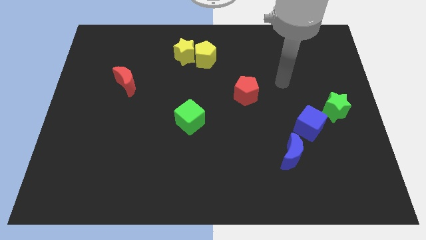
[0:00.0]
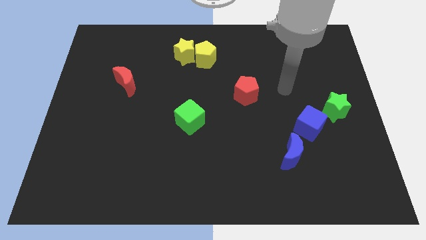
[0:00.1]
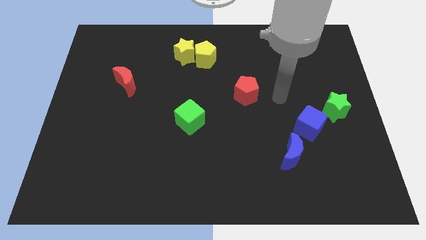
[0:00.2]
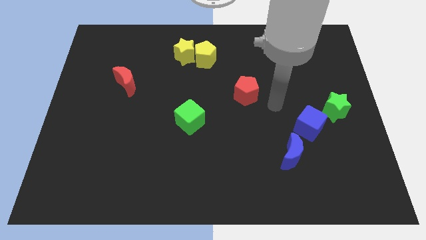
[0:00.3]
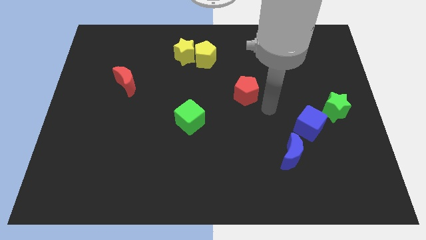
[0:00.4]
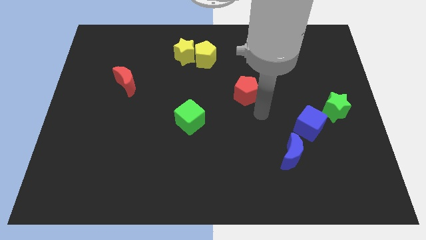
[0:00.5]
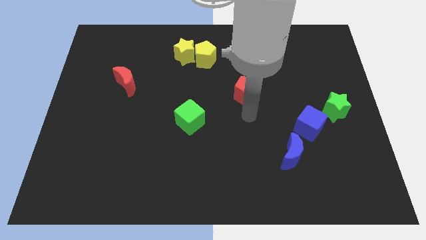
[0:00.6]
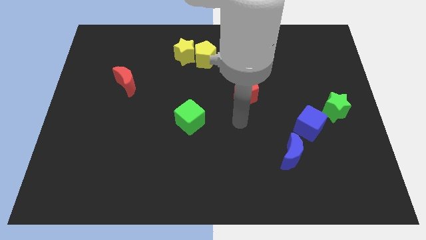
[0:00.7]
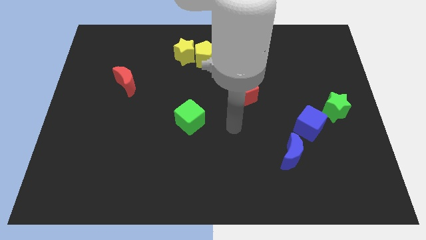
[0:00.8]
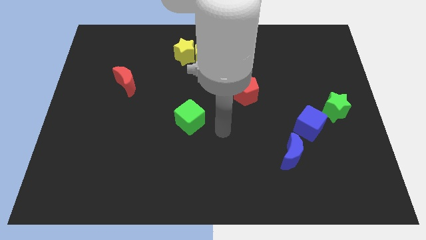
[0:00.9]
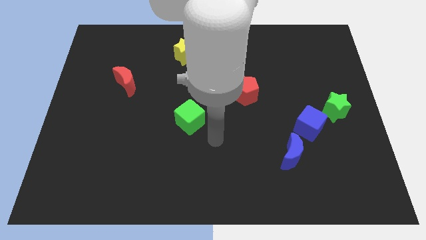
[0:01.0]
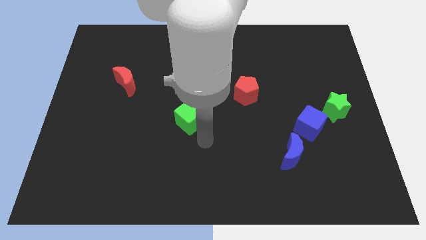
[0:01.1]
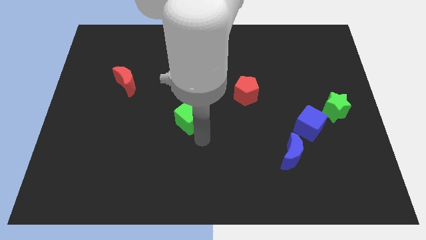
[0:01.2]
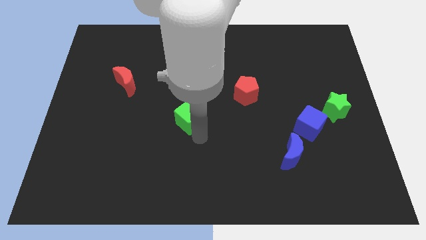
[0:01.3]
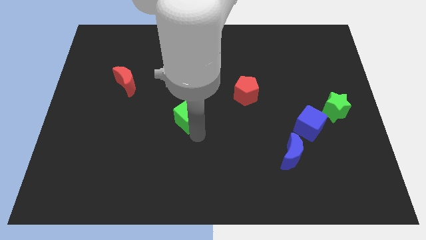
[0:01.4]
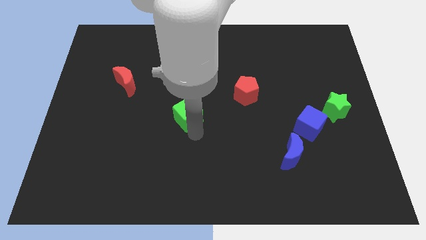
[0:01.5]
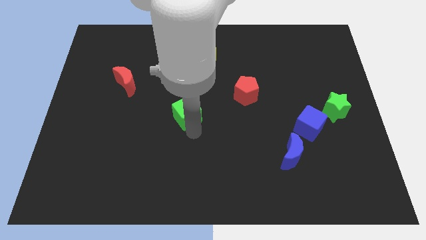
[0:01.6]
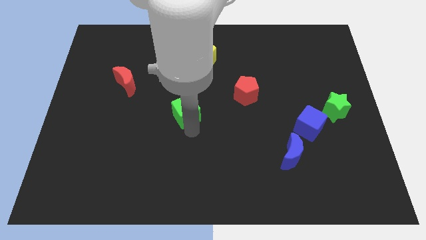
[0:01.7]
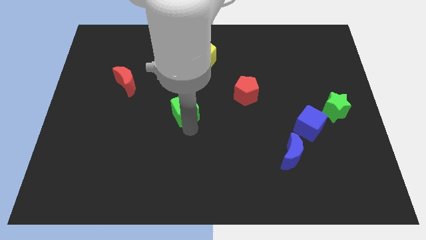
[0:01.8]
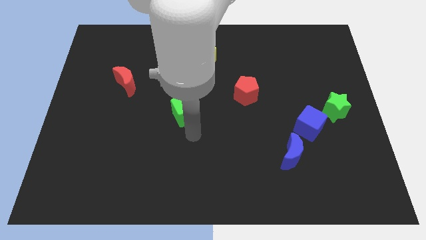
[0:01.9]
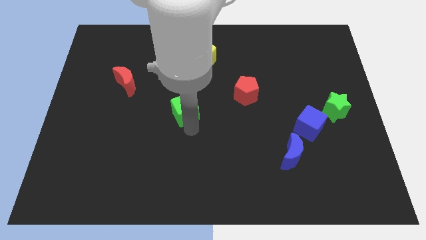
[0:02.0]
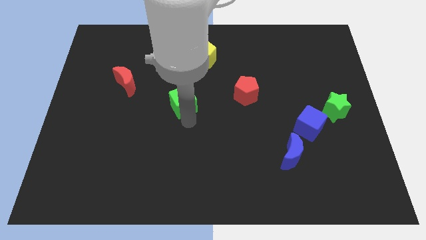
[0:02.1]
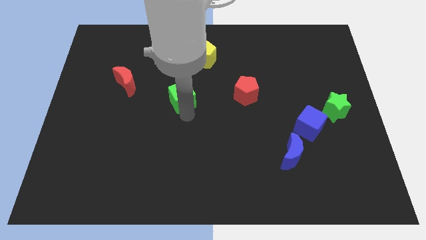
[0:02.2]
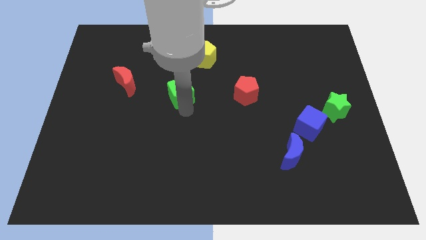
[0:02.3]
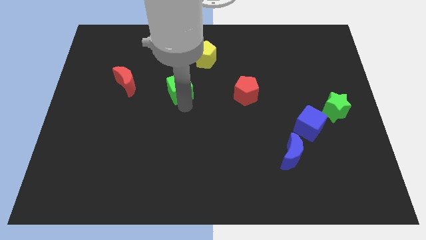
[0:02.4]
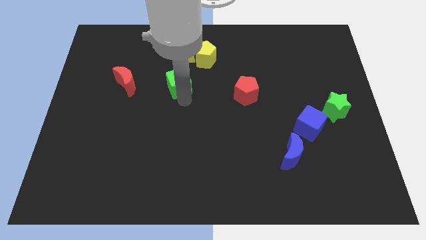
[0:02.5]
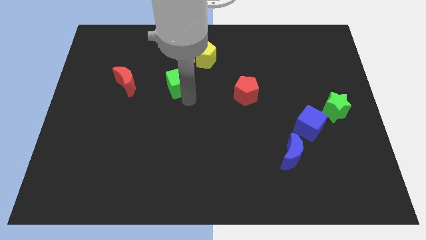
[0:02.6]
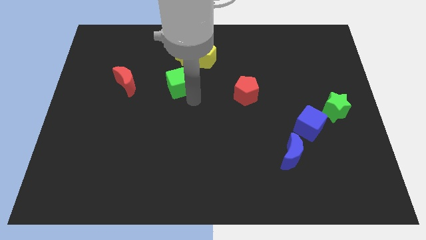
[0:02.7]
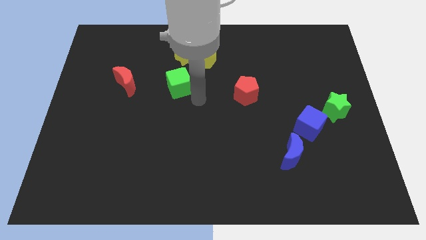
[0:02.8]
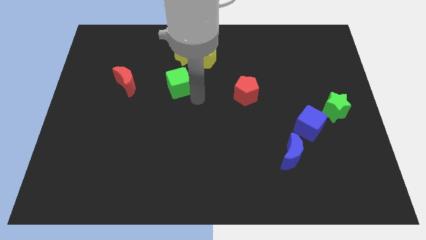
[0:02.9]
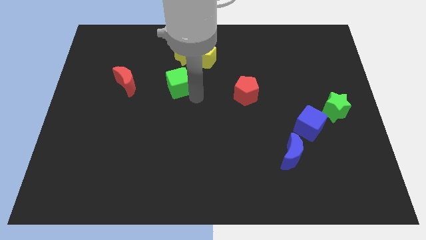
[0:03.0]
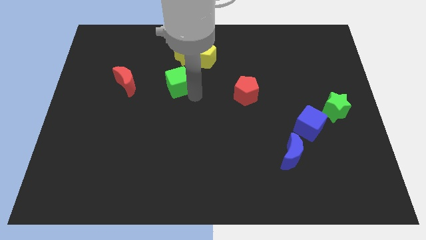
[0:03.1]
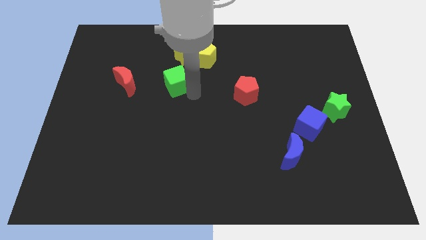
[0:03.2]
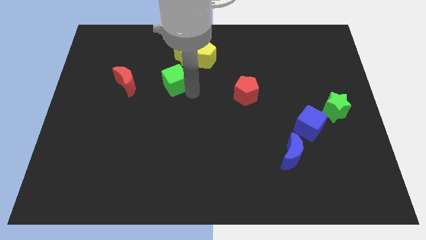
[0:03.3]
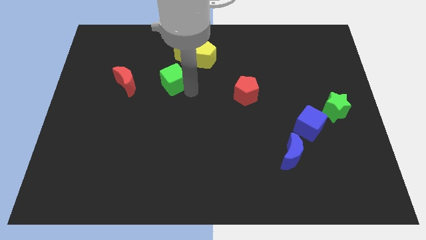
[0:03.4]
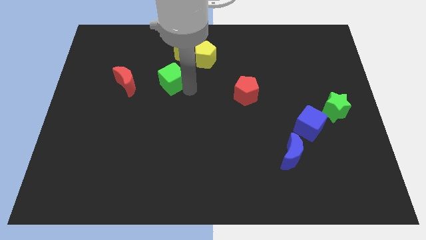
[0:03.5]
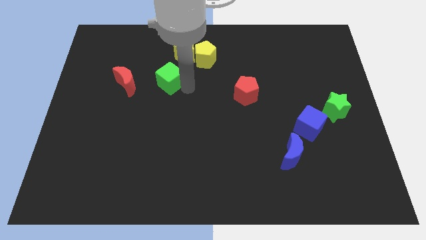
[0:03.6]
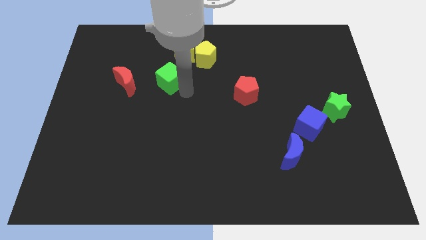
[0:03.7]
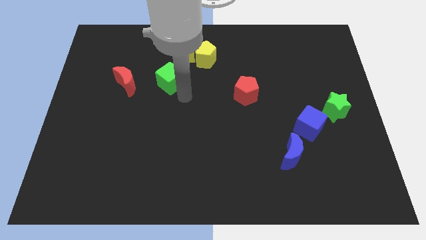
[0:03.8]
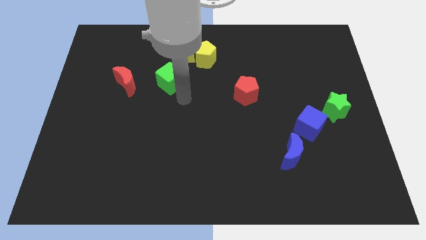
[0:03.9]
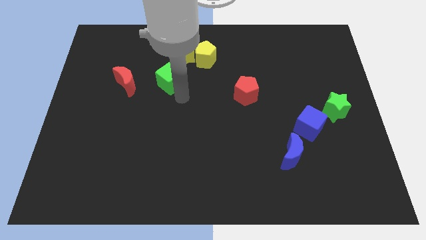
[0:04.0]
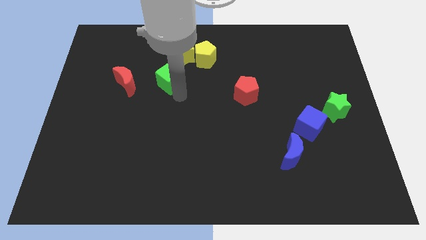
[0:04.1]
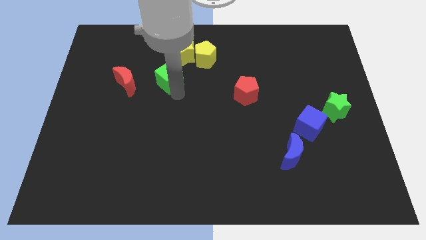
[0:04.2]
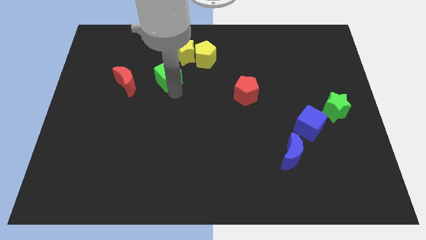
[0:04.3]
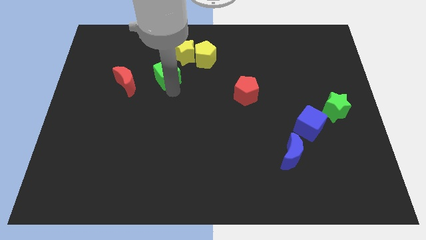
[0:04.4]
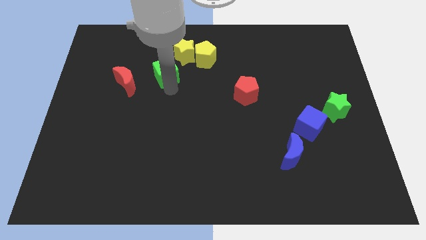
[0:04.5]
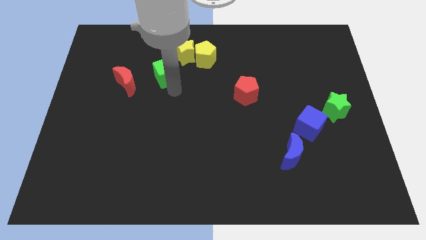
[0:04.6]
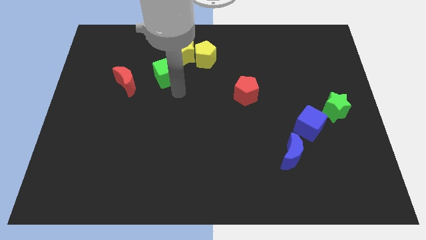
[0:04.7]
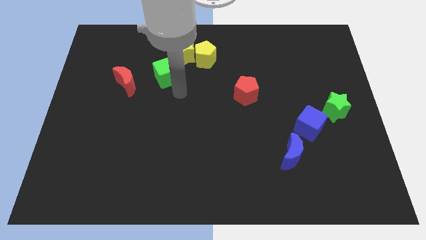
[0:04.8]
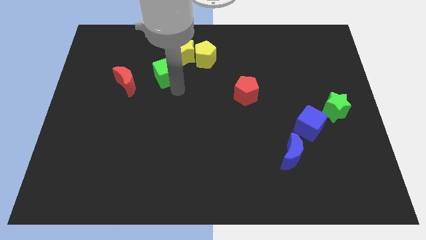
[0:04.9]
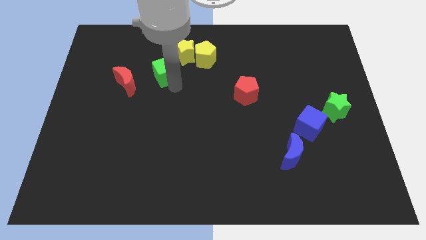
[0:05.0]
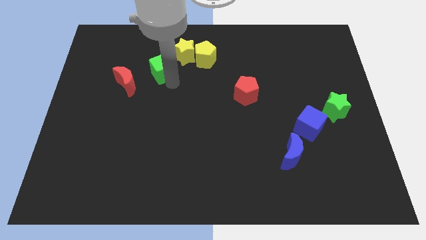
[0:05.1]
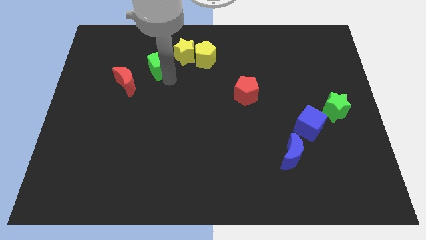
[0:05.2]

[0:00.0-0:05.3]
slide the green cube to the left of the yellow star

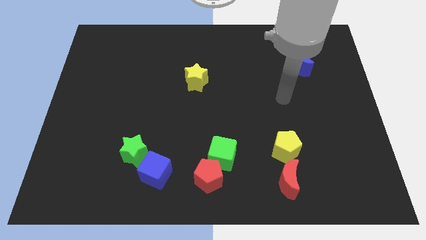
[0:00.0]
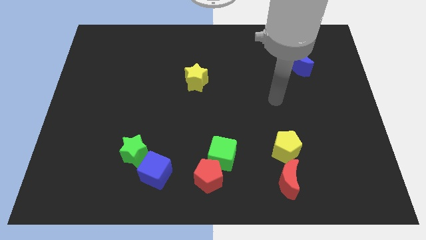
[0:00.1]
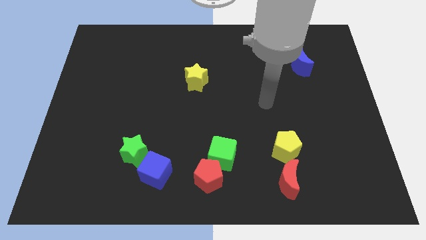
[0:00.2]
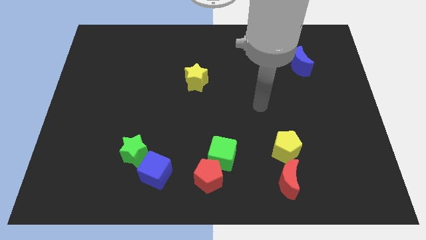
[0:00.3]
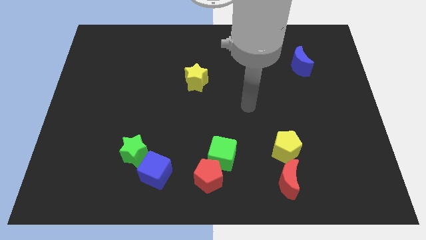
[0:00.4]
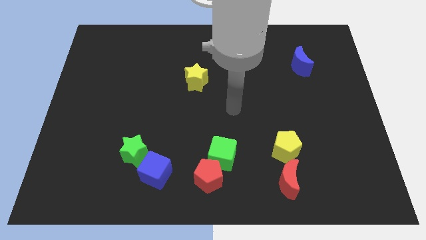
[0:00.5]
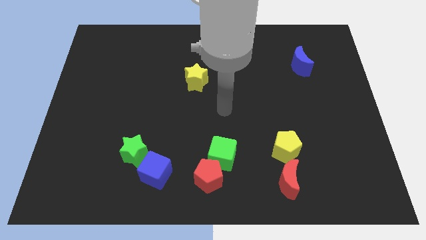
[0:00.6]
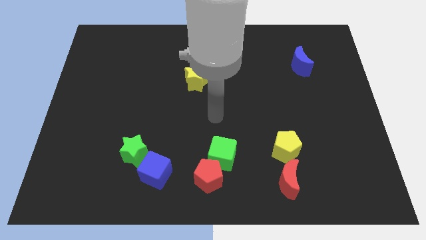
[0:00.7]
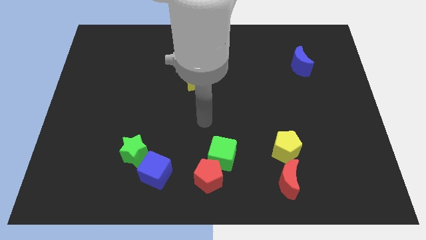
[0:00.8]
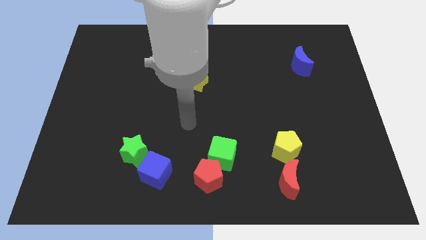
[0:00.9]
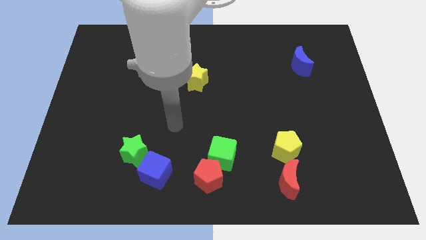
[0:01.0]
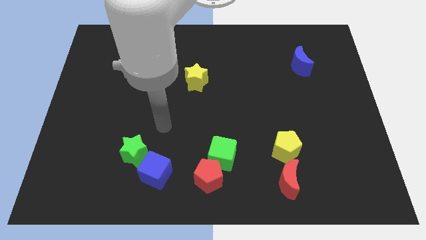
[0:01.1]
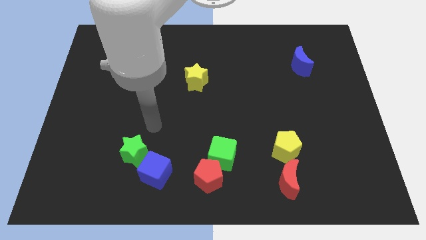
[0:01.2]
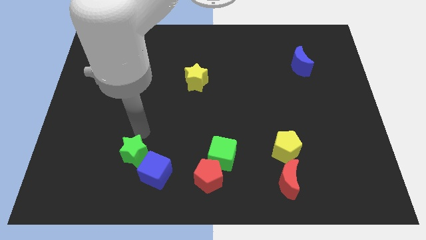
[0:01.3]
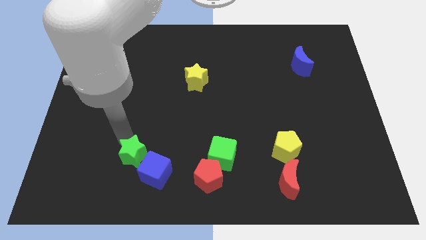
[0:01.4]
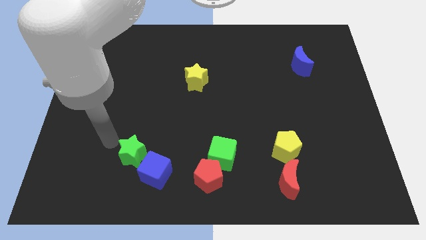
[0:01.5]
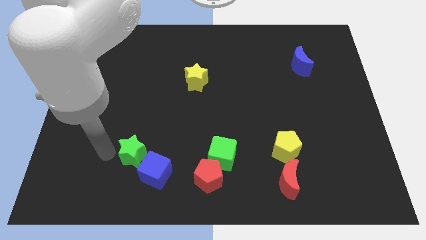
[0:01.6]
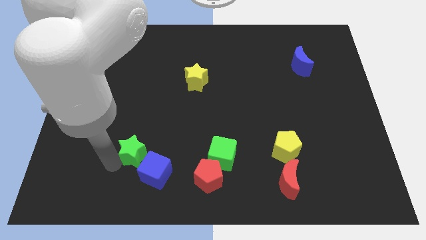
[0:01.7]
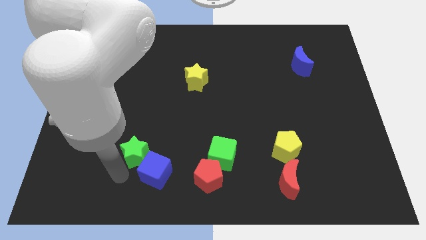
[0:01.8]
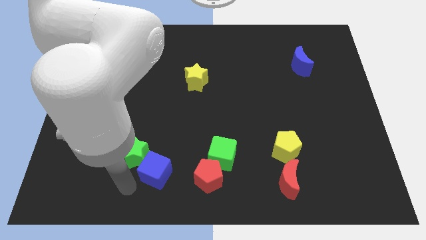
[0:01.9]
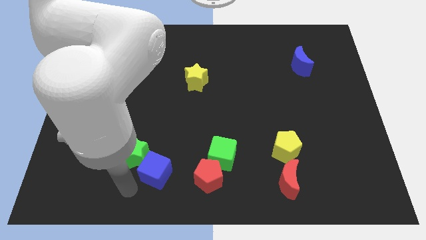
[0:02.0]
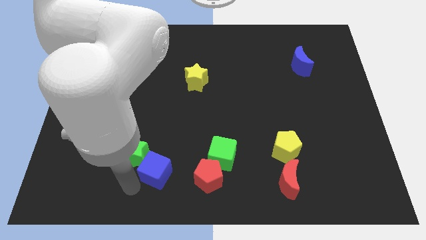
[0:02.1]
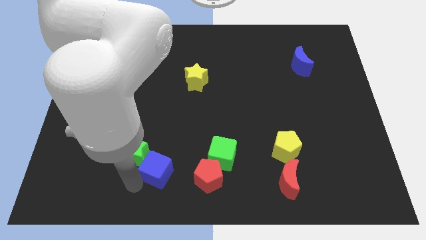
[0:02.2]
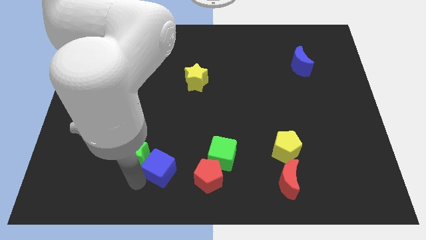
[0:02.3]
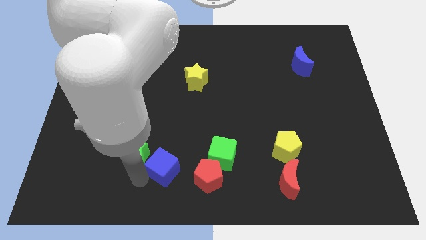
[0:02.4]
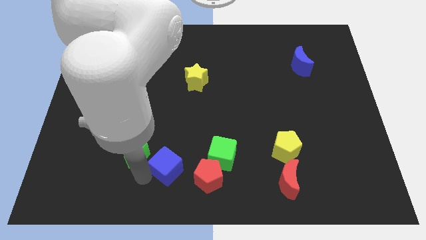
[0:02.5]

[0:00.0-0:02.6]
slide the blue cube to the top left side of the red pentagon
